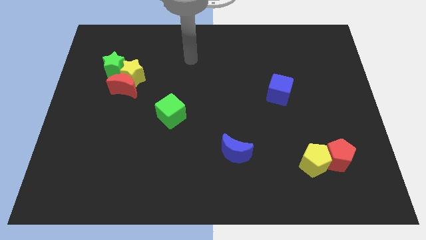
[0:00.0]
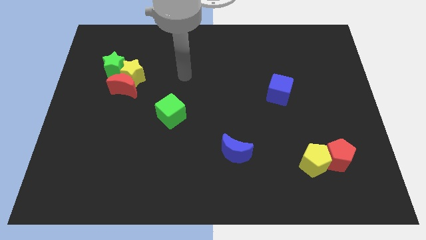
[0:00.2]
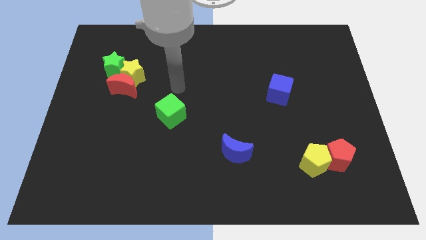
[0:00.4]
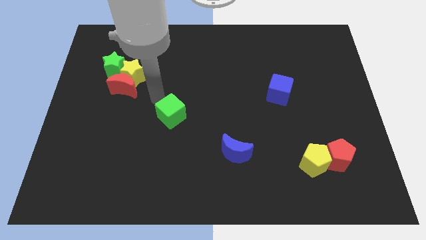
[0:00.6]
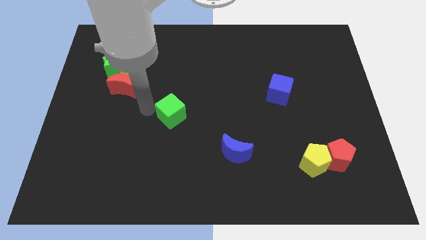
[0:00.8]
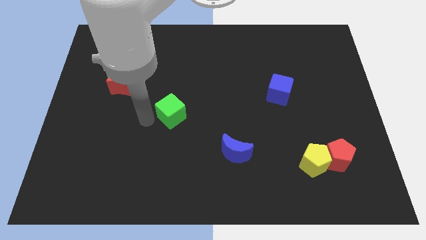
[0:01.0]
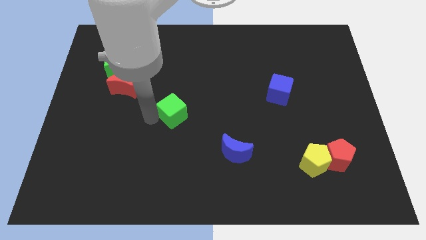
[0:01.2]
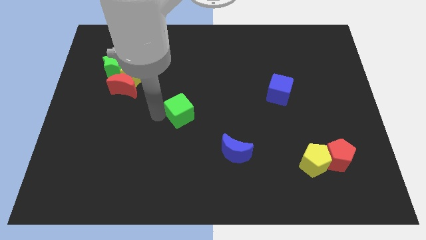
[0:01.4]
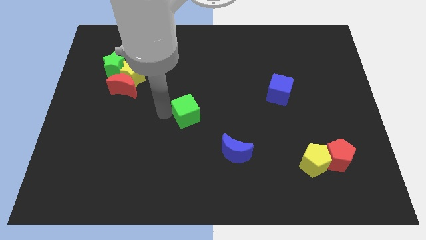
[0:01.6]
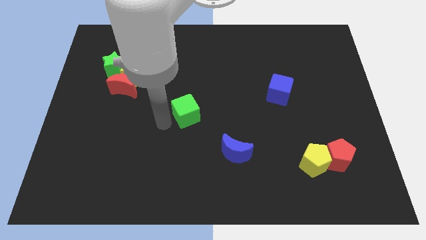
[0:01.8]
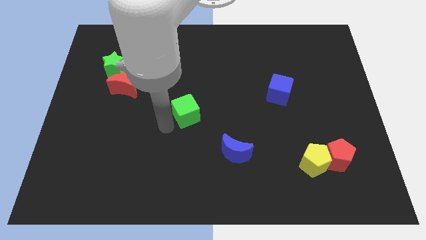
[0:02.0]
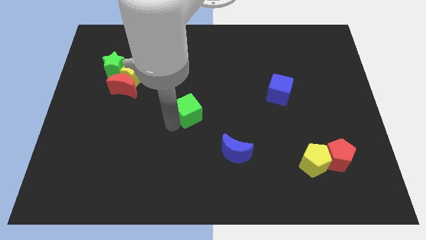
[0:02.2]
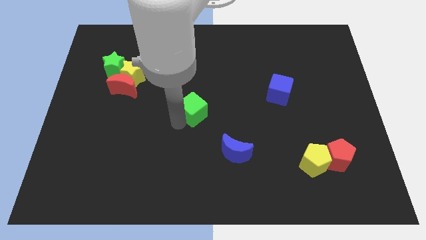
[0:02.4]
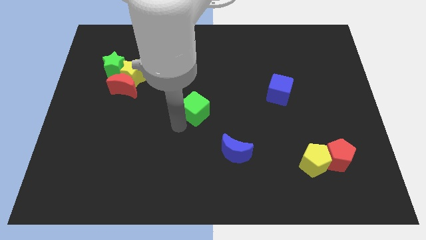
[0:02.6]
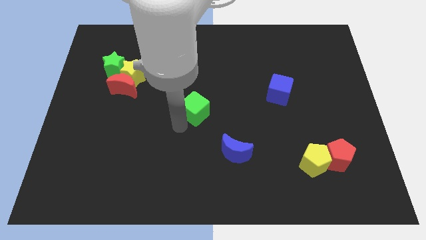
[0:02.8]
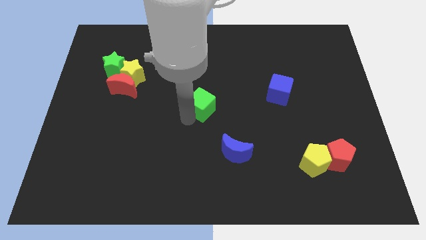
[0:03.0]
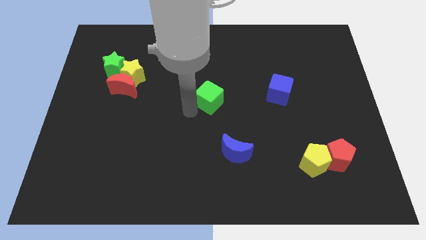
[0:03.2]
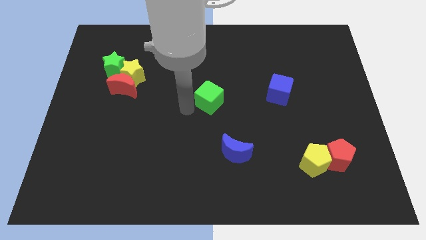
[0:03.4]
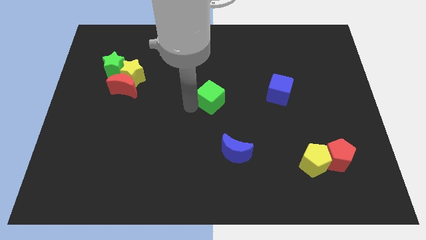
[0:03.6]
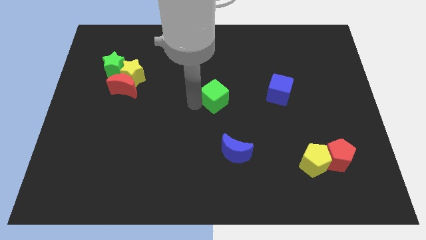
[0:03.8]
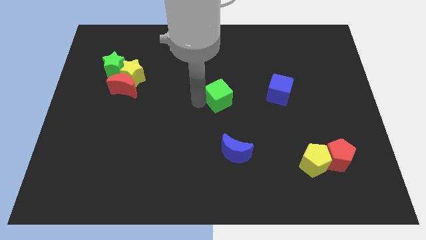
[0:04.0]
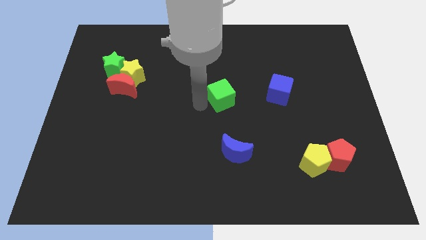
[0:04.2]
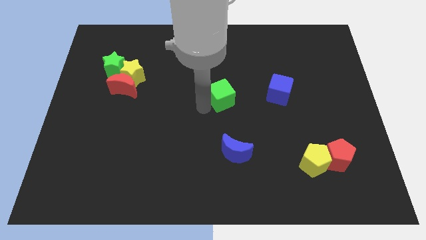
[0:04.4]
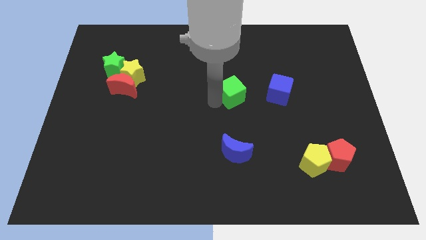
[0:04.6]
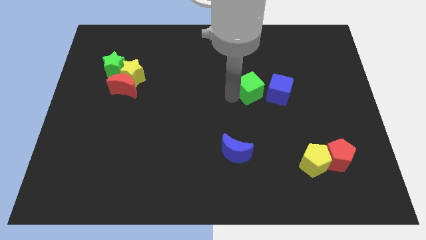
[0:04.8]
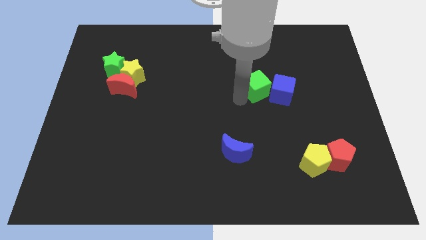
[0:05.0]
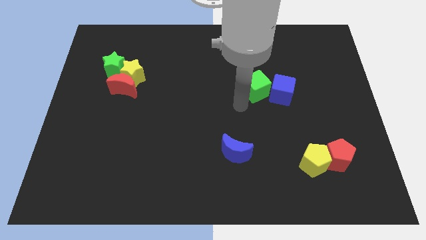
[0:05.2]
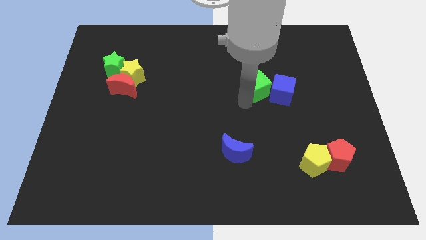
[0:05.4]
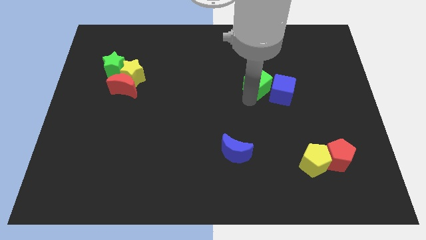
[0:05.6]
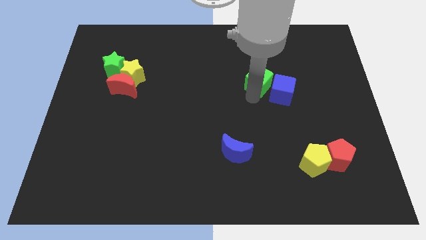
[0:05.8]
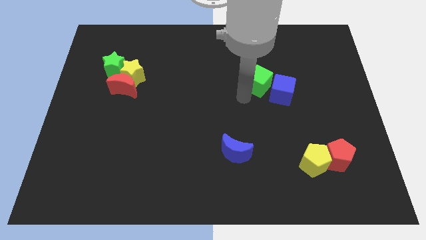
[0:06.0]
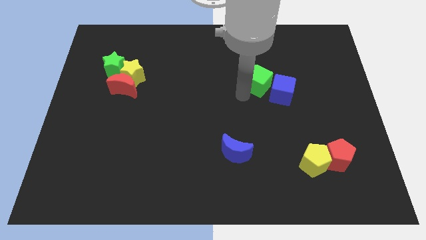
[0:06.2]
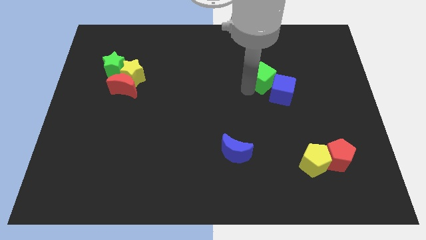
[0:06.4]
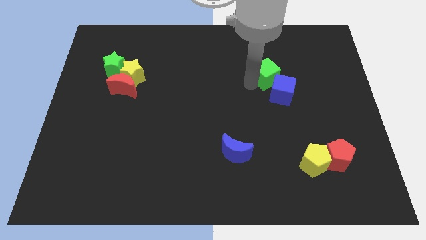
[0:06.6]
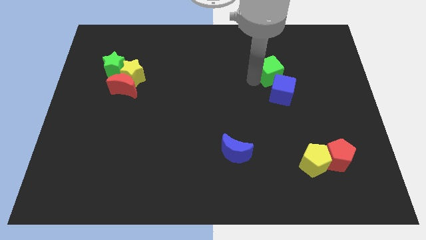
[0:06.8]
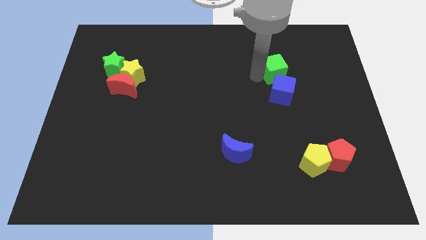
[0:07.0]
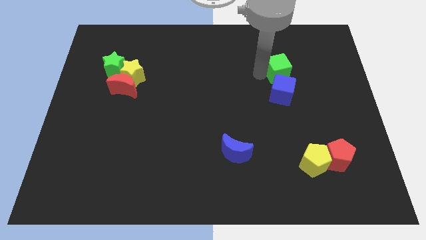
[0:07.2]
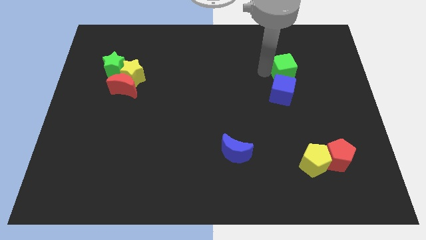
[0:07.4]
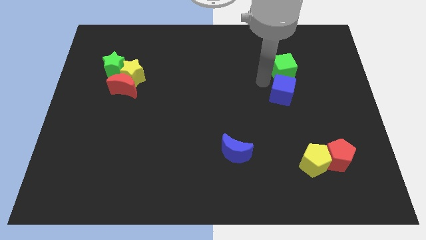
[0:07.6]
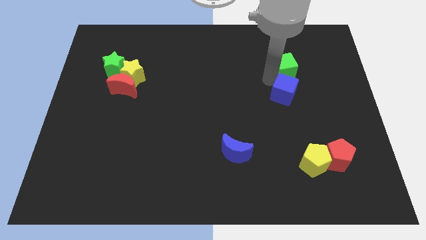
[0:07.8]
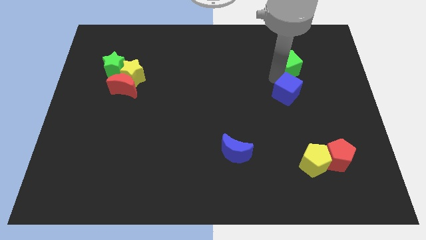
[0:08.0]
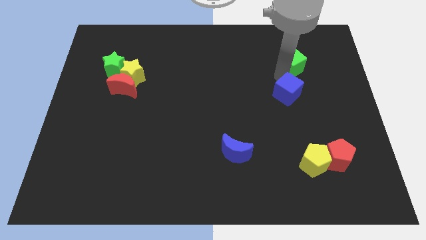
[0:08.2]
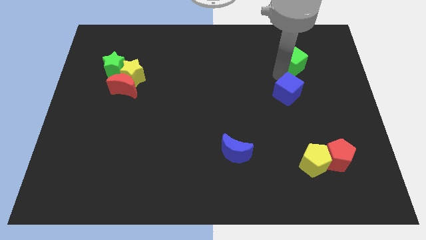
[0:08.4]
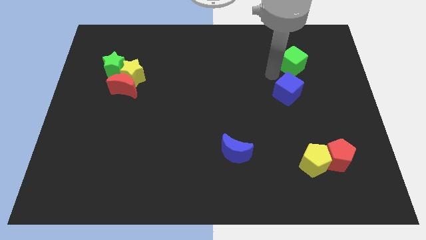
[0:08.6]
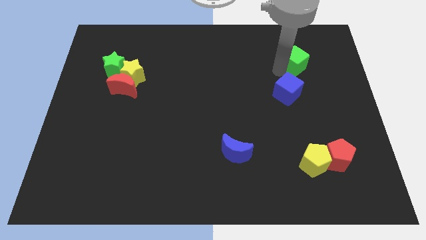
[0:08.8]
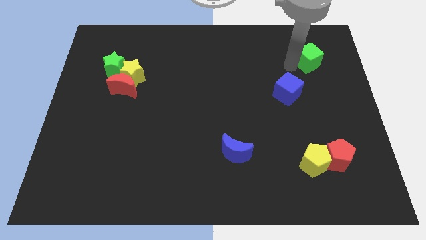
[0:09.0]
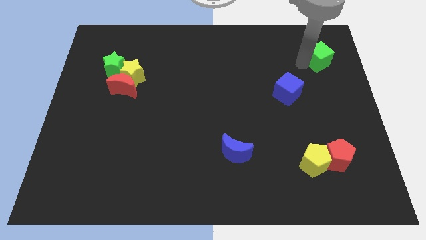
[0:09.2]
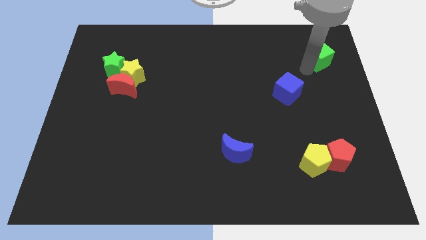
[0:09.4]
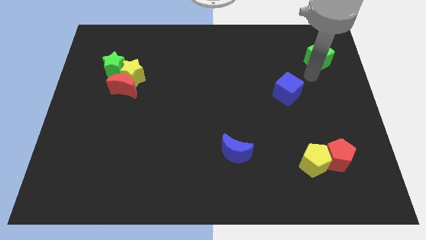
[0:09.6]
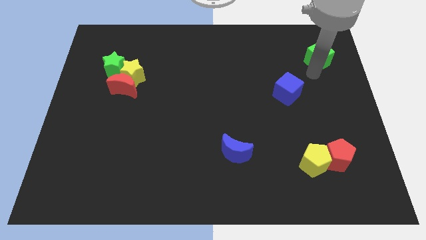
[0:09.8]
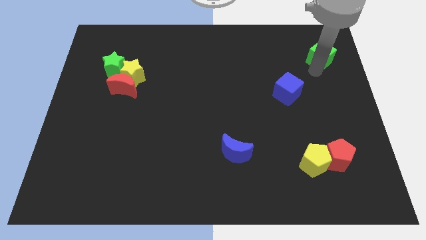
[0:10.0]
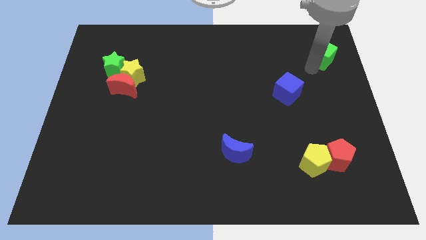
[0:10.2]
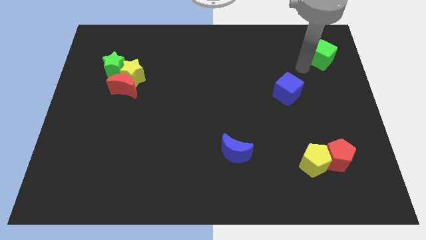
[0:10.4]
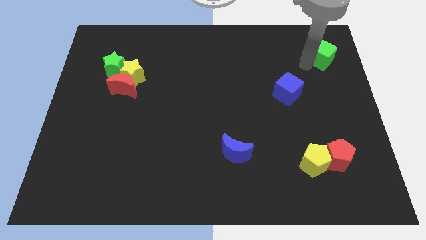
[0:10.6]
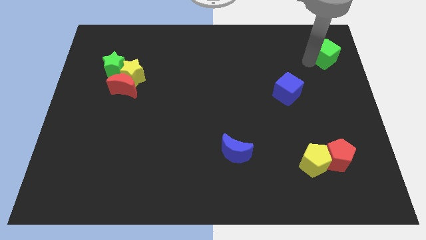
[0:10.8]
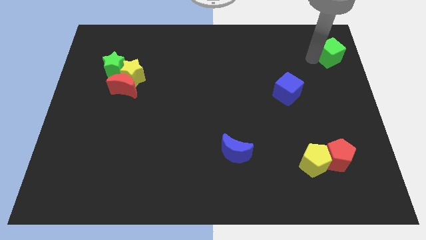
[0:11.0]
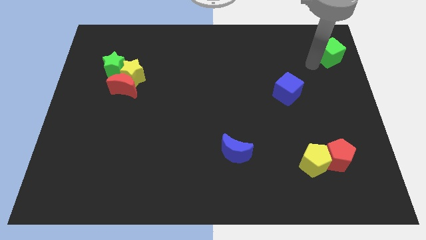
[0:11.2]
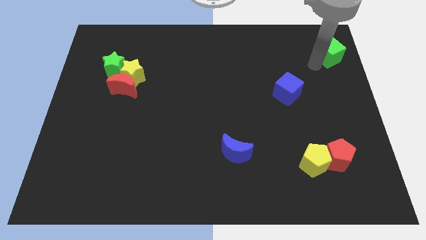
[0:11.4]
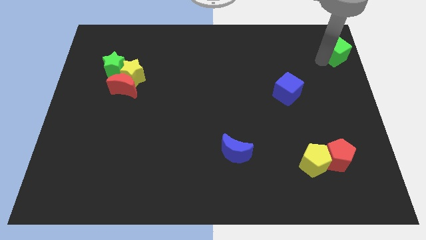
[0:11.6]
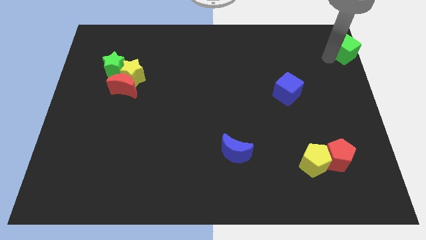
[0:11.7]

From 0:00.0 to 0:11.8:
put the green cube to the upper right corner
